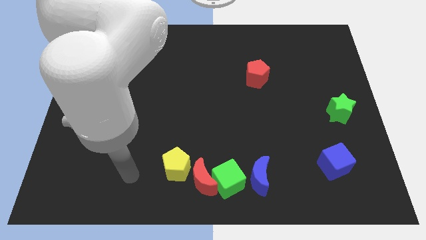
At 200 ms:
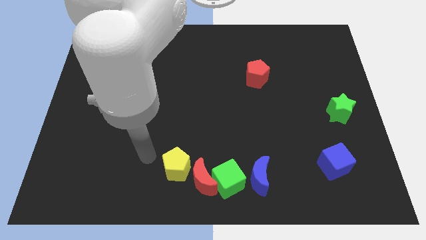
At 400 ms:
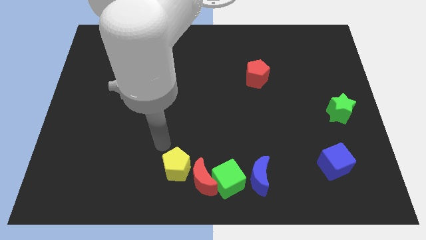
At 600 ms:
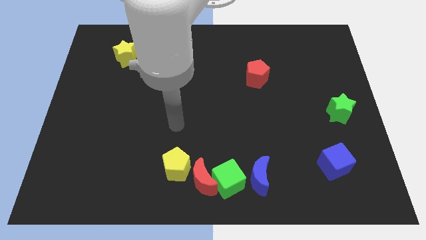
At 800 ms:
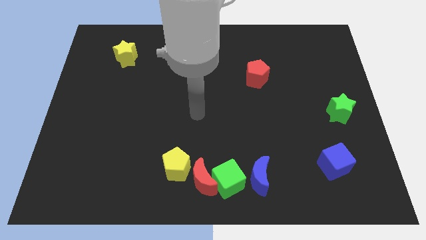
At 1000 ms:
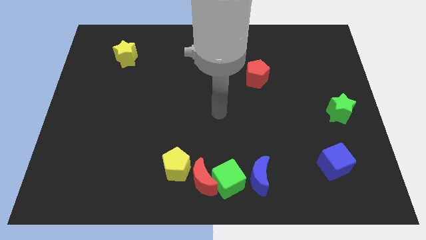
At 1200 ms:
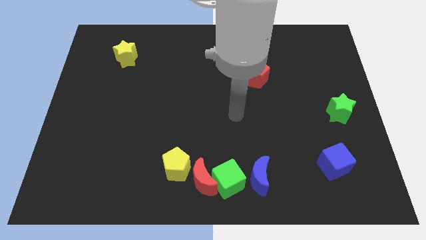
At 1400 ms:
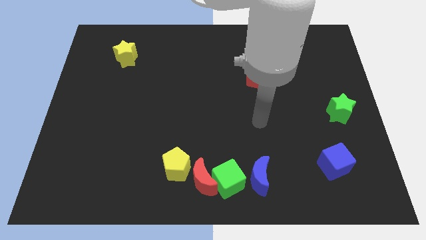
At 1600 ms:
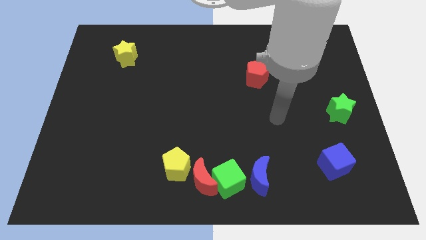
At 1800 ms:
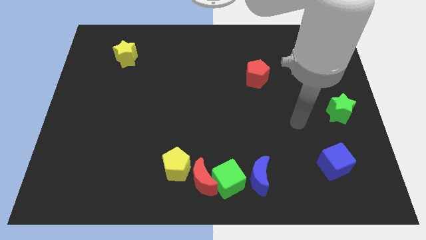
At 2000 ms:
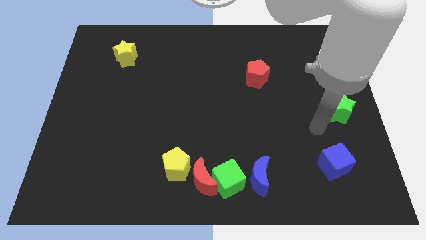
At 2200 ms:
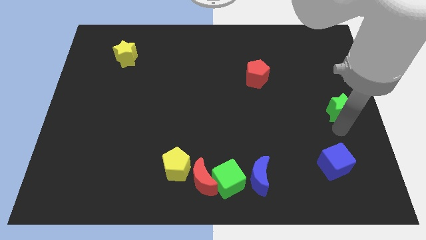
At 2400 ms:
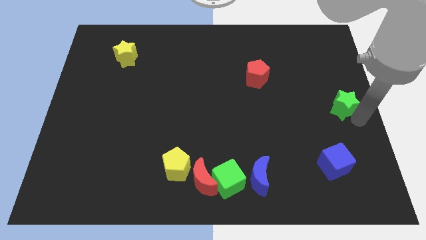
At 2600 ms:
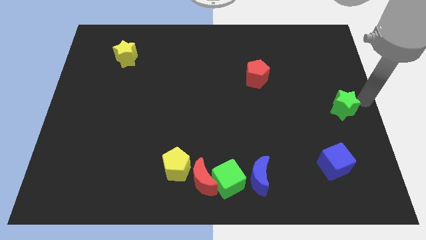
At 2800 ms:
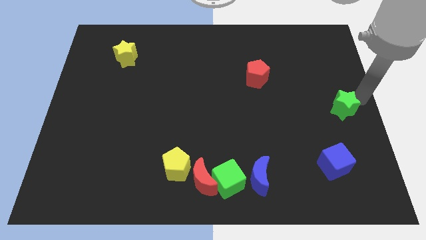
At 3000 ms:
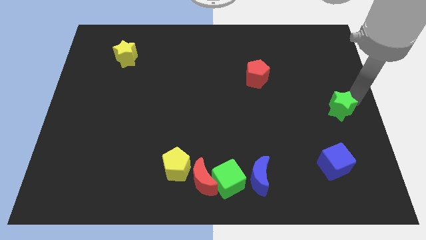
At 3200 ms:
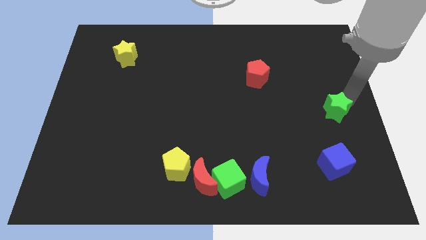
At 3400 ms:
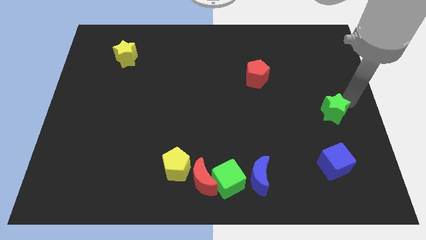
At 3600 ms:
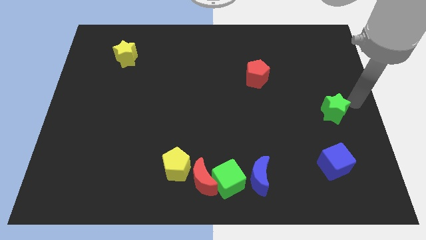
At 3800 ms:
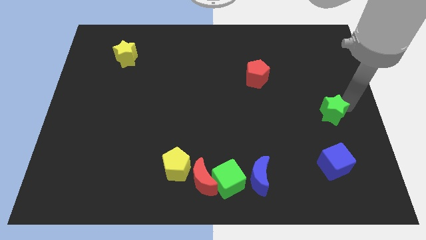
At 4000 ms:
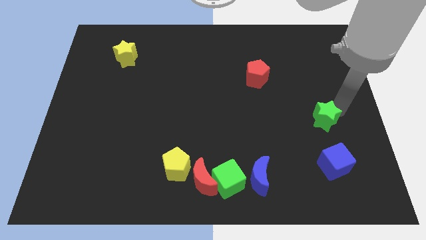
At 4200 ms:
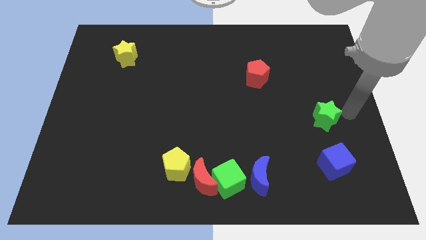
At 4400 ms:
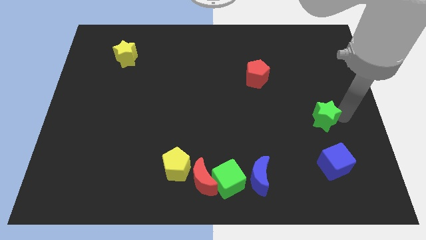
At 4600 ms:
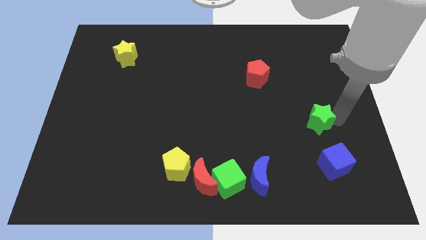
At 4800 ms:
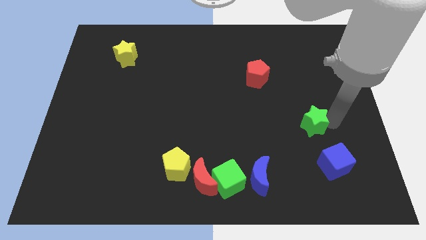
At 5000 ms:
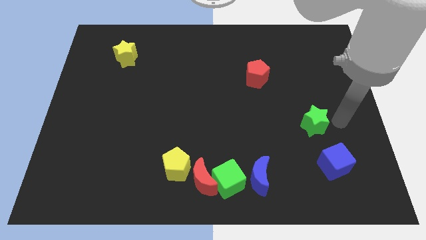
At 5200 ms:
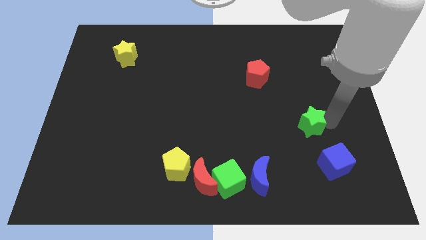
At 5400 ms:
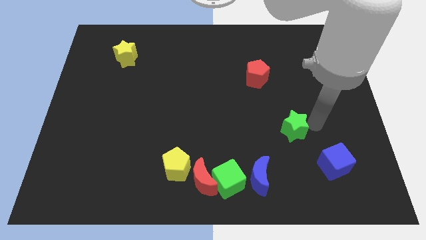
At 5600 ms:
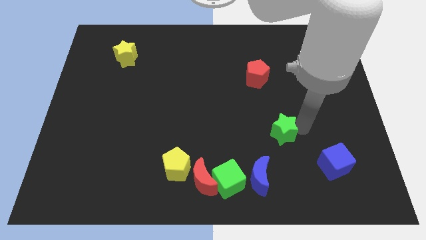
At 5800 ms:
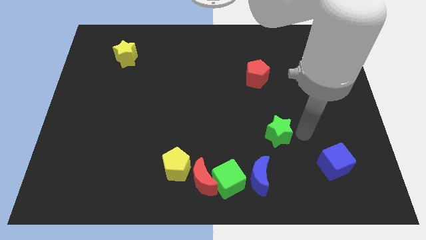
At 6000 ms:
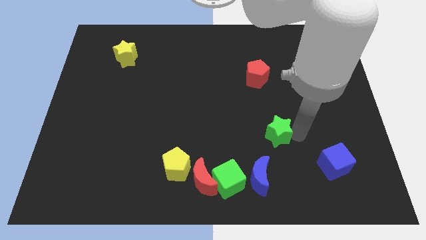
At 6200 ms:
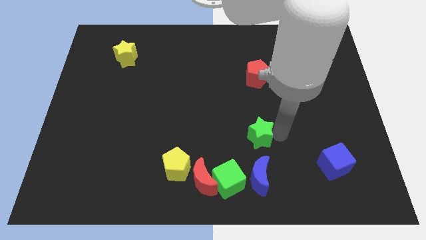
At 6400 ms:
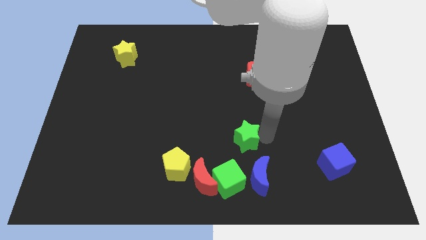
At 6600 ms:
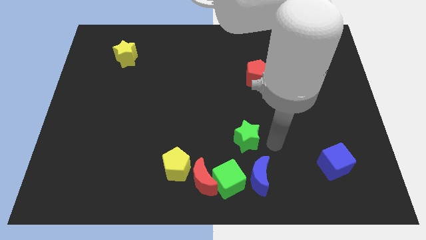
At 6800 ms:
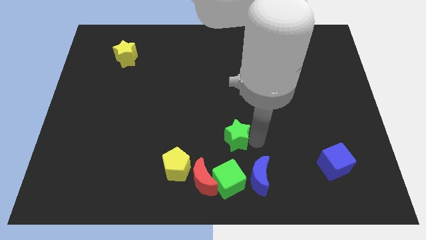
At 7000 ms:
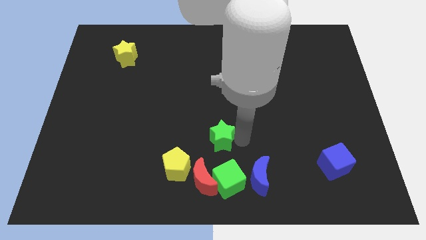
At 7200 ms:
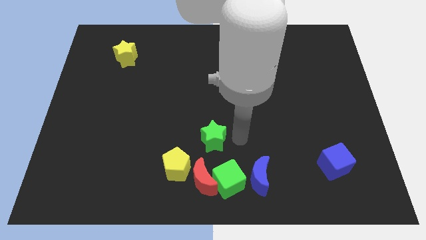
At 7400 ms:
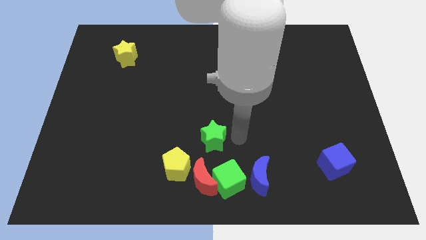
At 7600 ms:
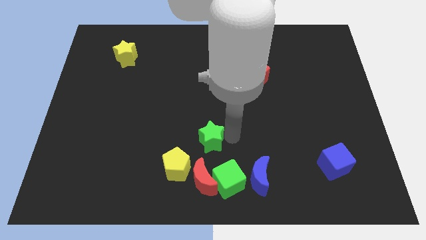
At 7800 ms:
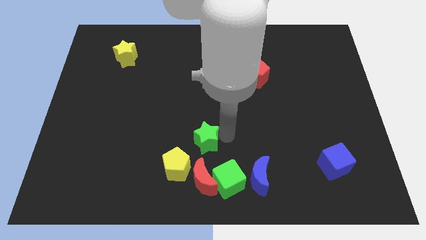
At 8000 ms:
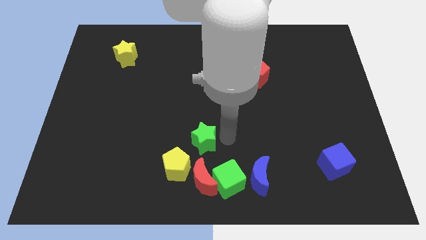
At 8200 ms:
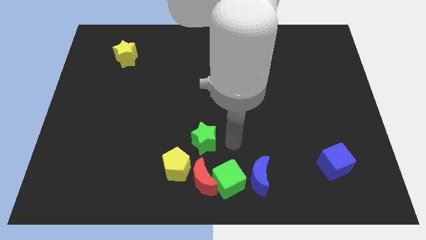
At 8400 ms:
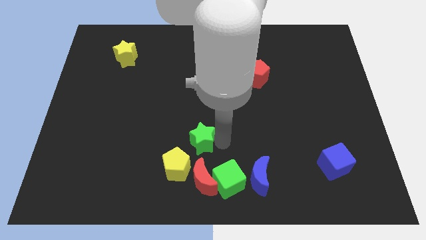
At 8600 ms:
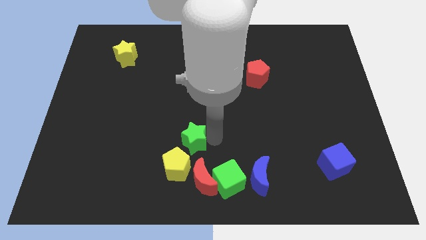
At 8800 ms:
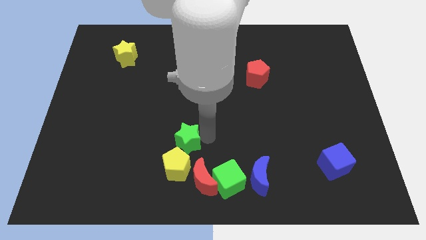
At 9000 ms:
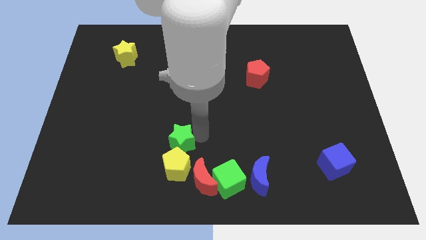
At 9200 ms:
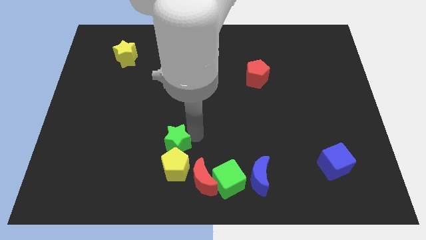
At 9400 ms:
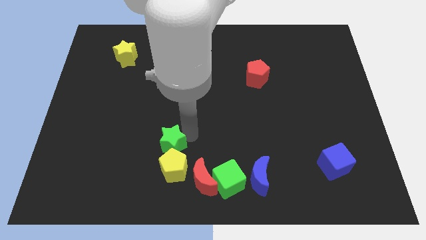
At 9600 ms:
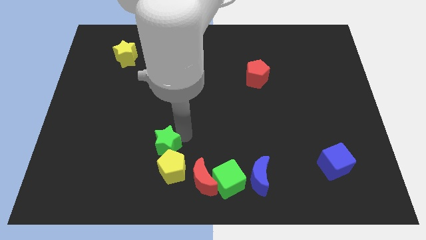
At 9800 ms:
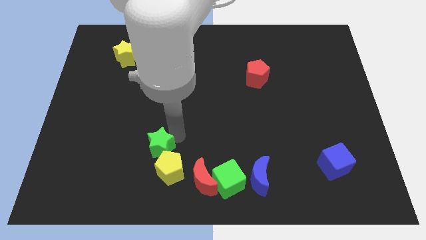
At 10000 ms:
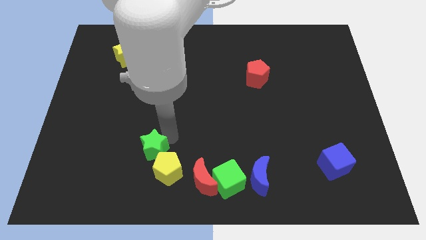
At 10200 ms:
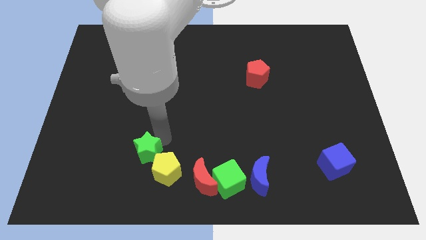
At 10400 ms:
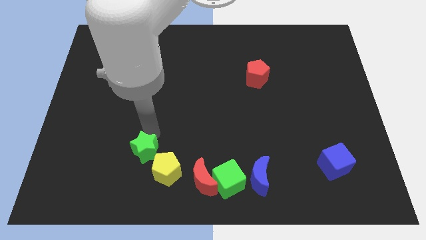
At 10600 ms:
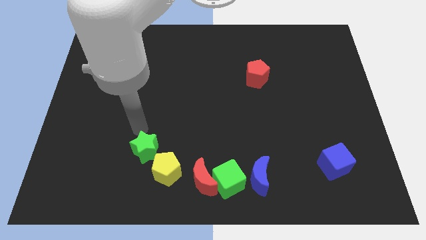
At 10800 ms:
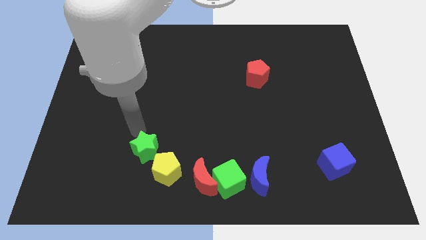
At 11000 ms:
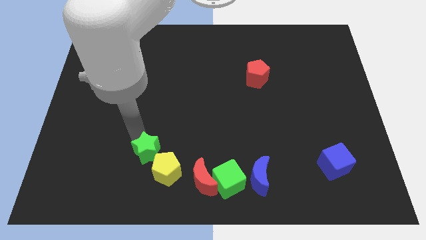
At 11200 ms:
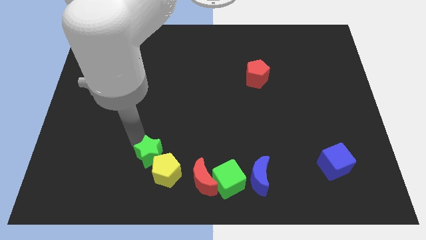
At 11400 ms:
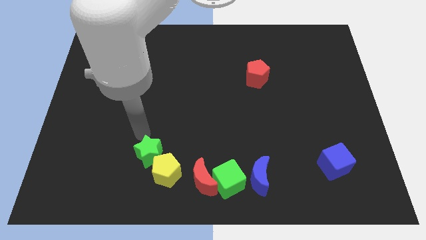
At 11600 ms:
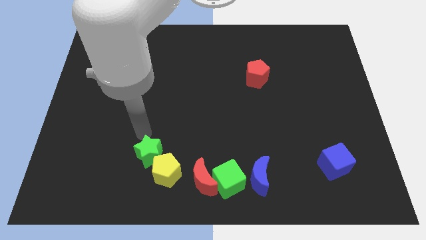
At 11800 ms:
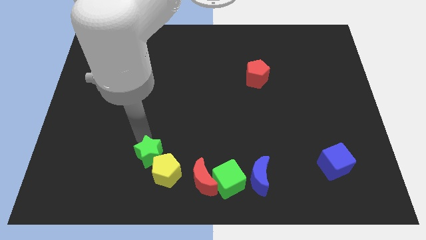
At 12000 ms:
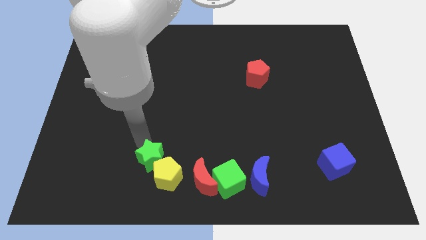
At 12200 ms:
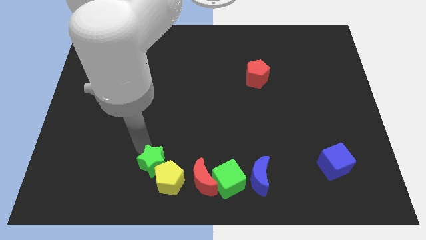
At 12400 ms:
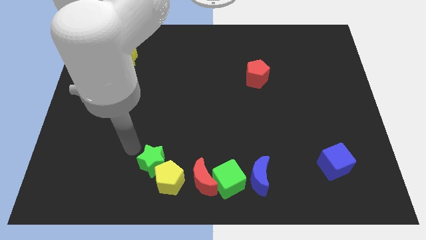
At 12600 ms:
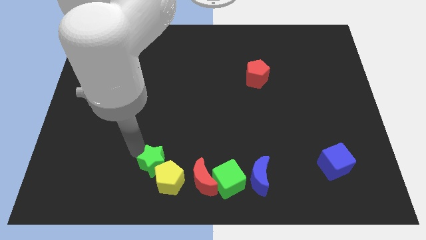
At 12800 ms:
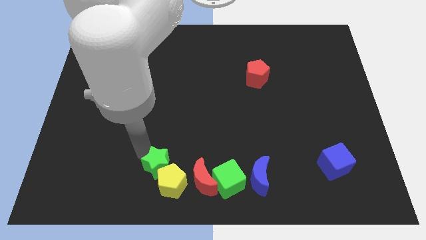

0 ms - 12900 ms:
move the green star just left of the green cube
